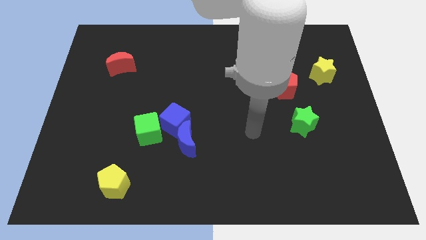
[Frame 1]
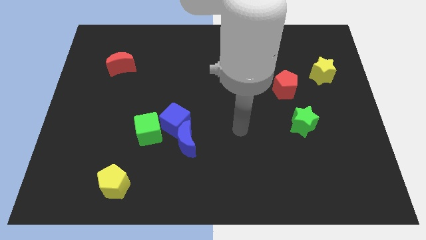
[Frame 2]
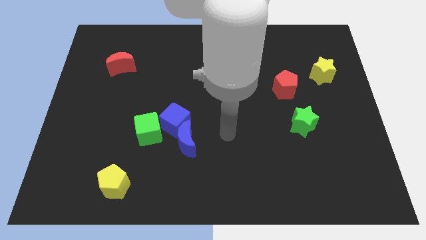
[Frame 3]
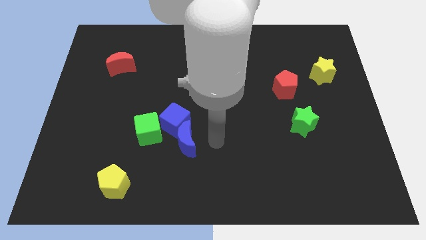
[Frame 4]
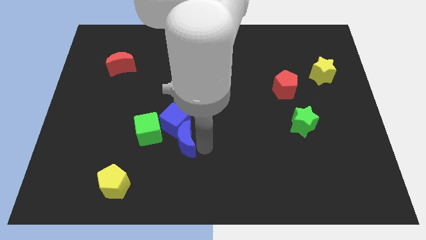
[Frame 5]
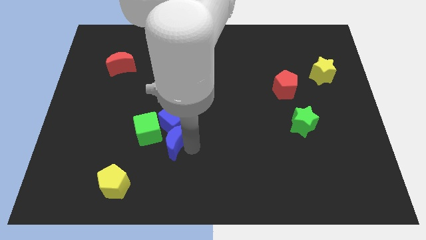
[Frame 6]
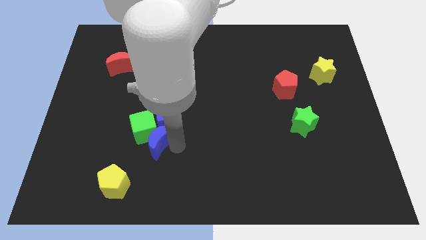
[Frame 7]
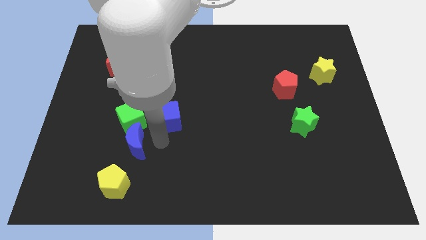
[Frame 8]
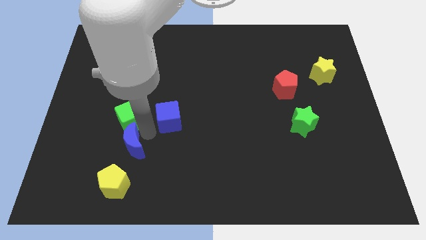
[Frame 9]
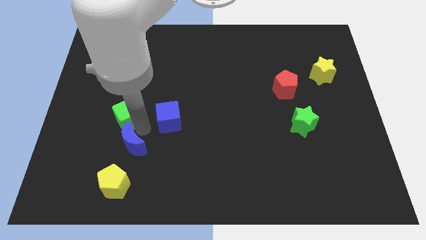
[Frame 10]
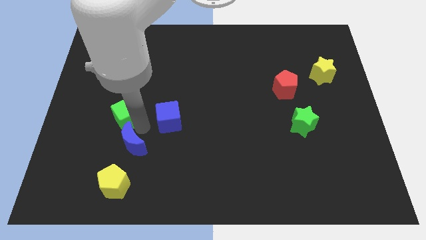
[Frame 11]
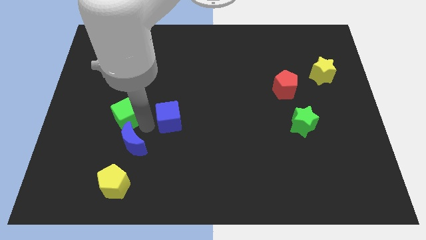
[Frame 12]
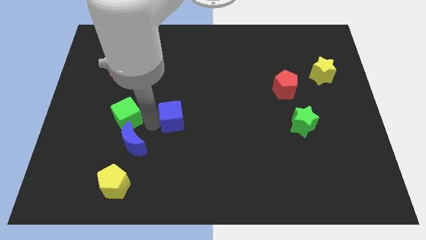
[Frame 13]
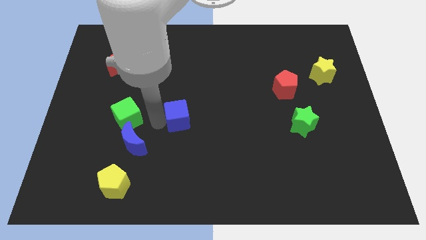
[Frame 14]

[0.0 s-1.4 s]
move the blue cube away from the blue moon and green cube

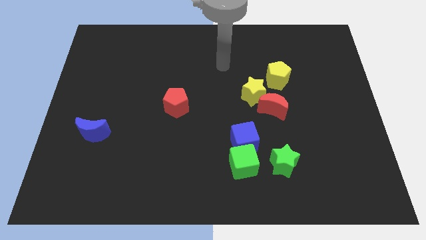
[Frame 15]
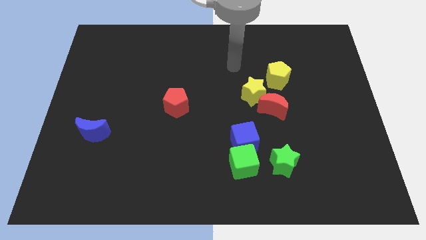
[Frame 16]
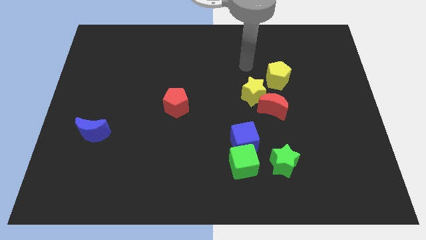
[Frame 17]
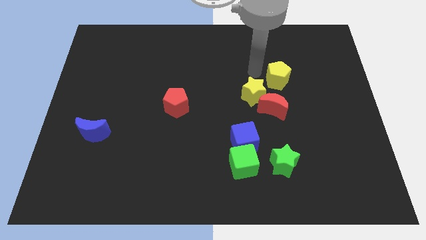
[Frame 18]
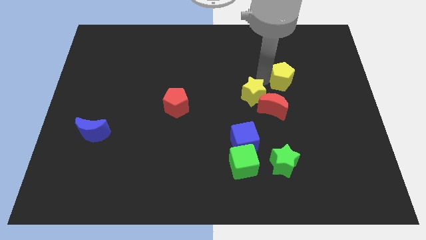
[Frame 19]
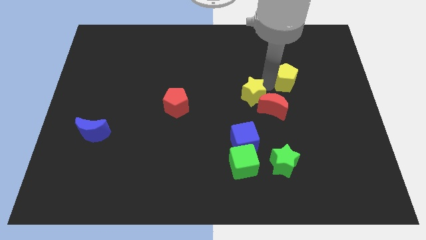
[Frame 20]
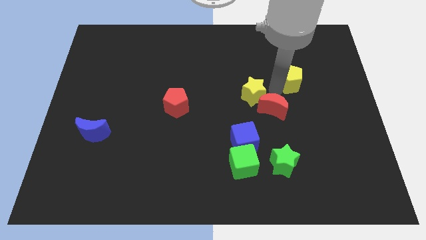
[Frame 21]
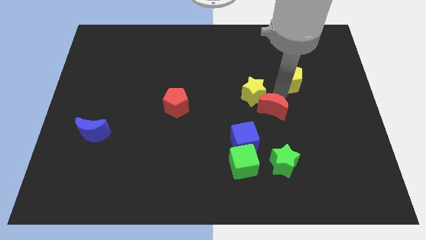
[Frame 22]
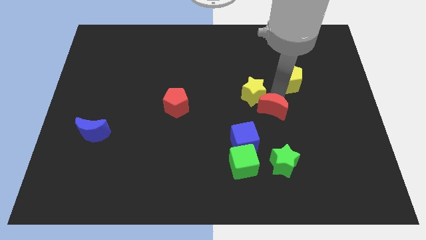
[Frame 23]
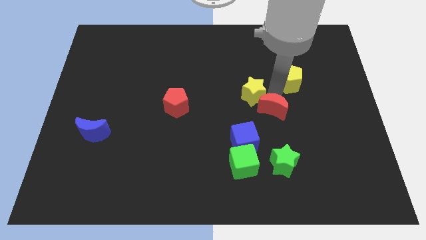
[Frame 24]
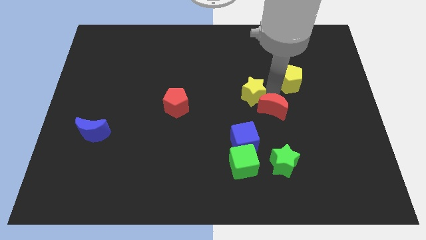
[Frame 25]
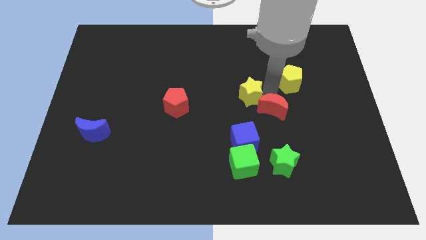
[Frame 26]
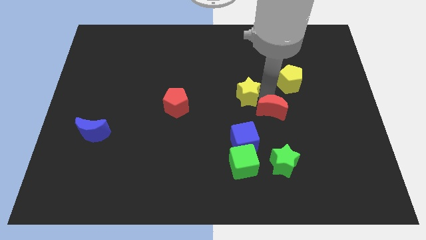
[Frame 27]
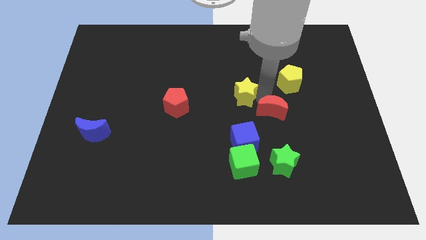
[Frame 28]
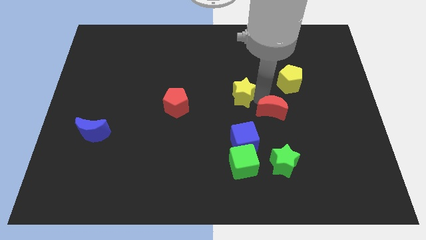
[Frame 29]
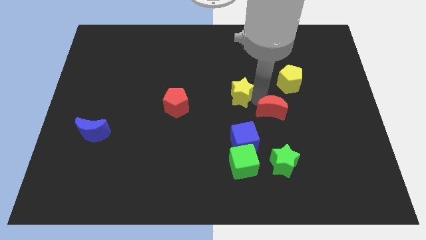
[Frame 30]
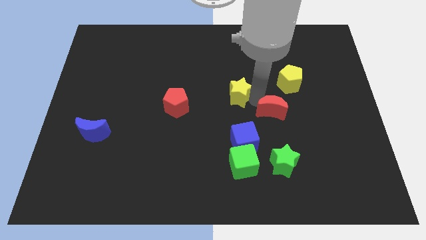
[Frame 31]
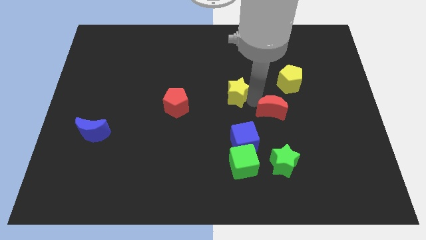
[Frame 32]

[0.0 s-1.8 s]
pull the yellow star apart from the red moon and yellow pentagon

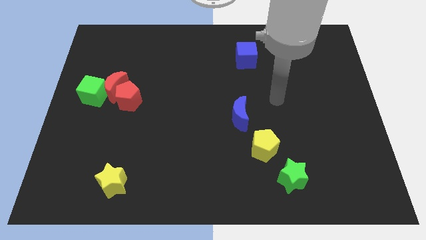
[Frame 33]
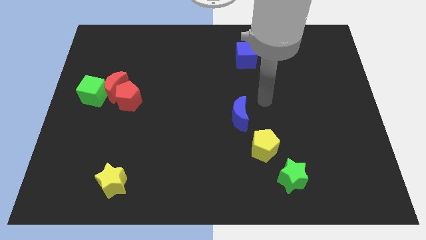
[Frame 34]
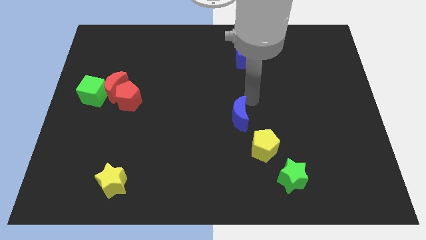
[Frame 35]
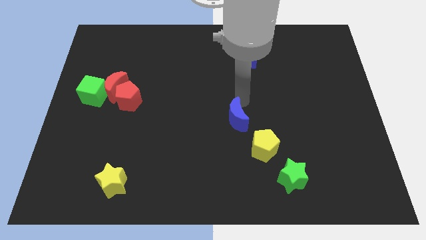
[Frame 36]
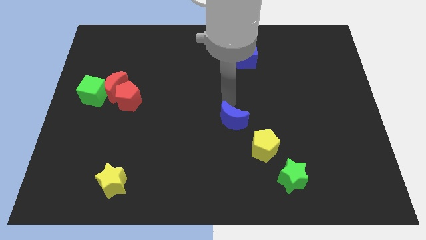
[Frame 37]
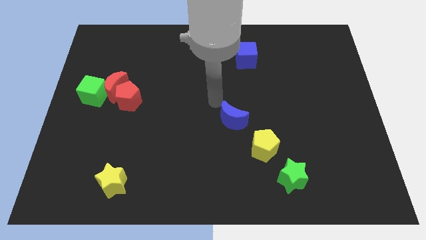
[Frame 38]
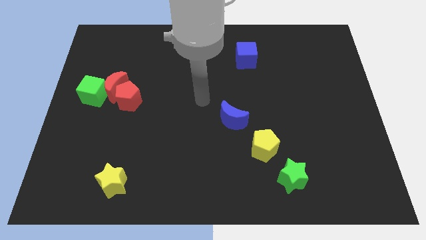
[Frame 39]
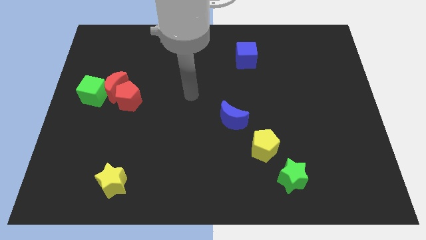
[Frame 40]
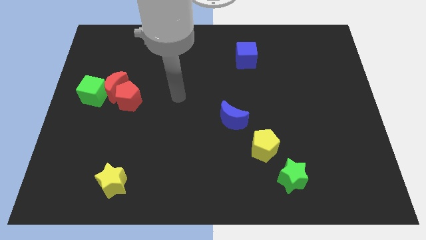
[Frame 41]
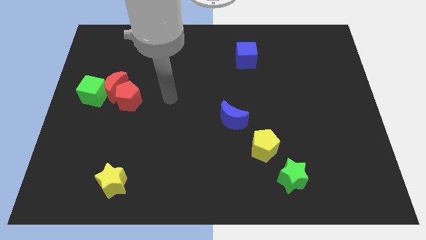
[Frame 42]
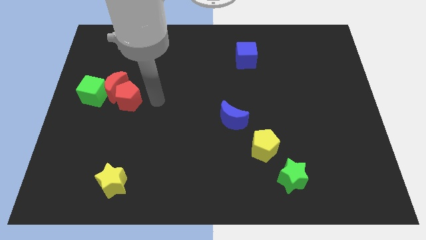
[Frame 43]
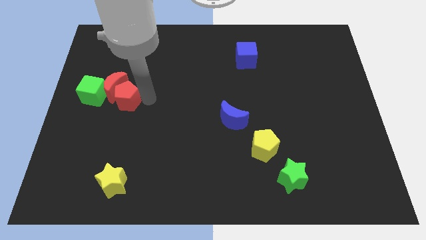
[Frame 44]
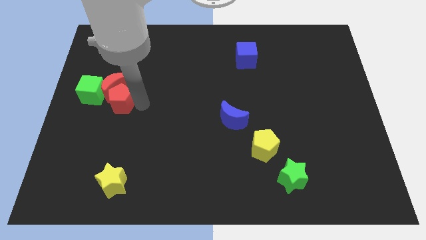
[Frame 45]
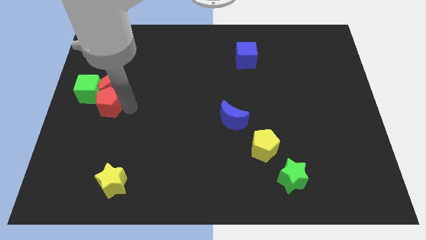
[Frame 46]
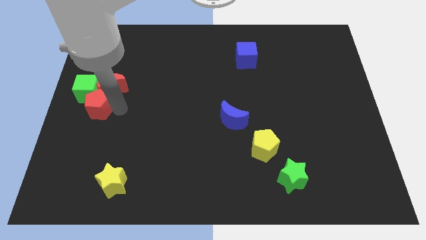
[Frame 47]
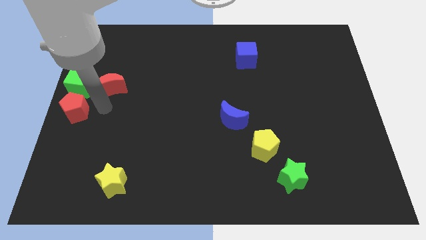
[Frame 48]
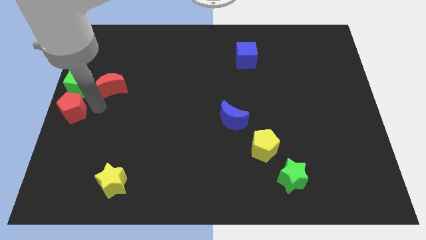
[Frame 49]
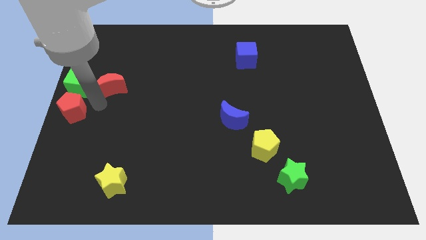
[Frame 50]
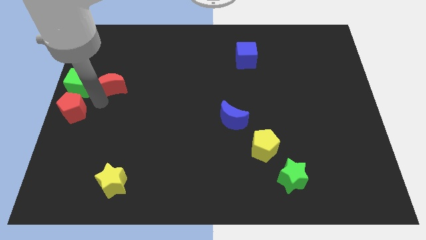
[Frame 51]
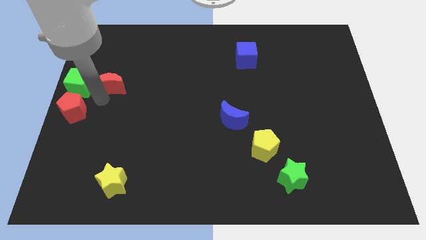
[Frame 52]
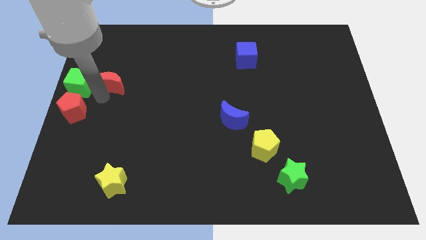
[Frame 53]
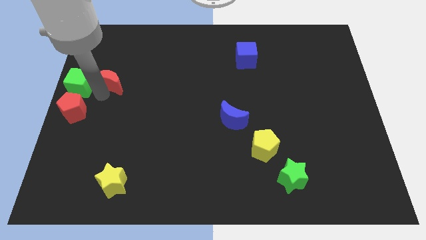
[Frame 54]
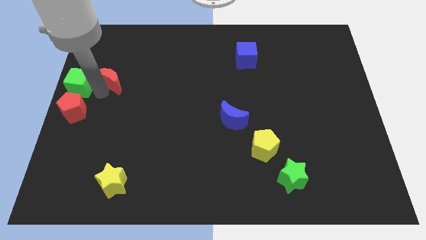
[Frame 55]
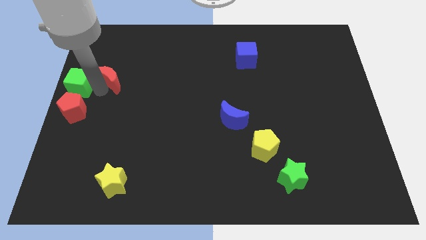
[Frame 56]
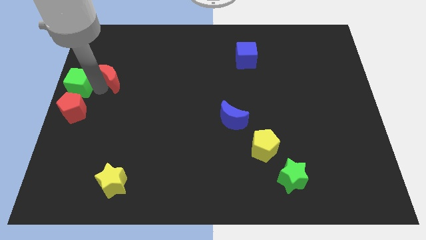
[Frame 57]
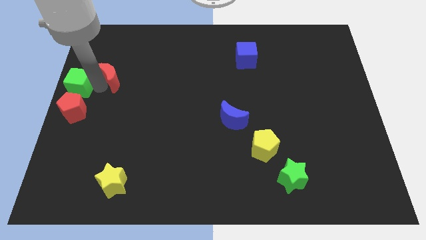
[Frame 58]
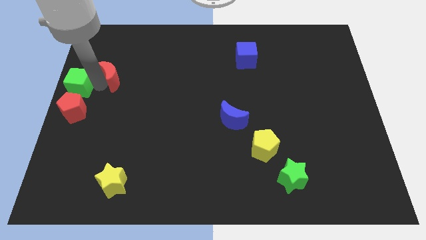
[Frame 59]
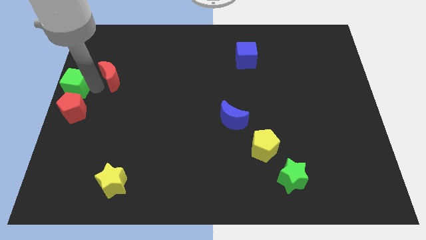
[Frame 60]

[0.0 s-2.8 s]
move the red moon away from the red pentagon and green cube

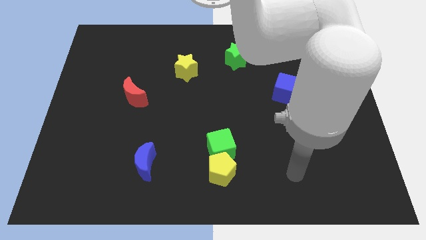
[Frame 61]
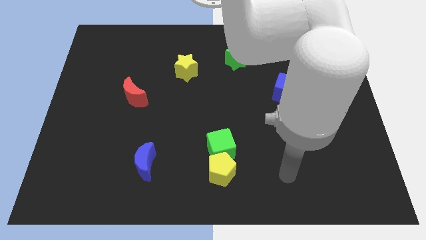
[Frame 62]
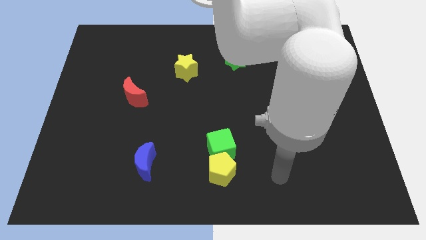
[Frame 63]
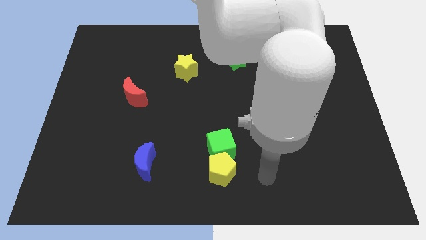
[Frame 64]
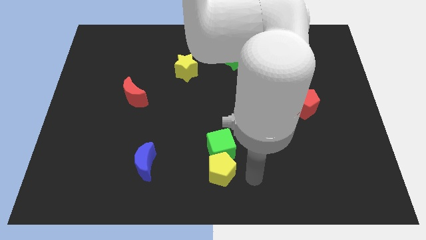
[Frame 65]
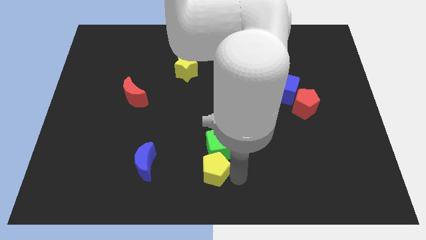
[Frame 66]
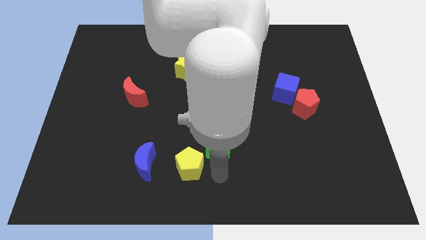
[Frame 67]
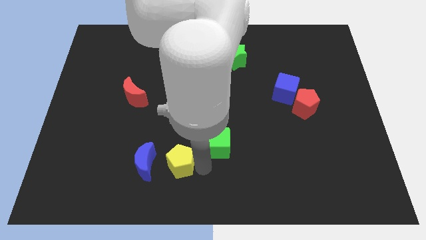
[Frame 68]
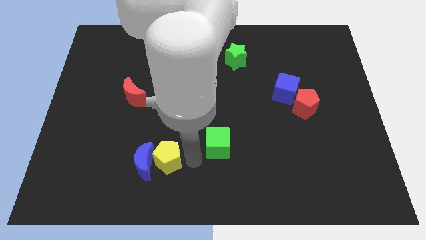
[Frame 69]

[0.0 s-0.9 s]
move the green cube away from the yellow pentagon

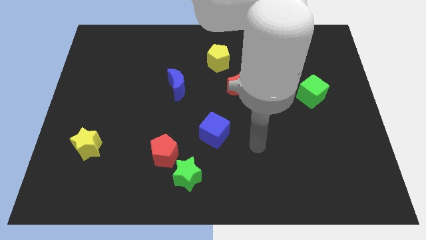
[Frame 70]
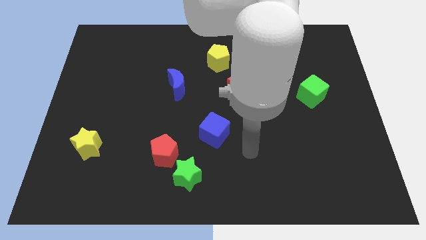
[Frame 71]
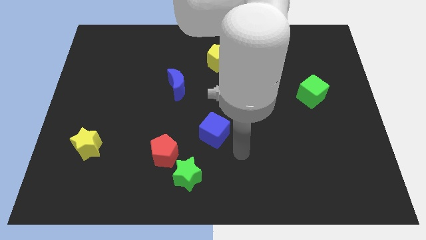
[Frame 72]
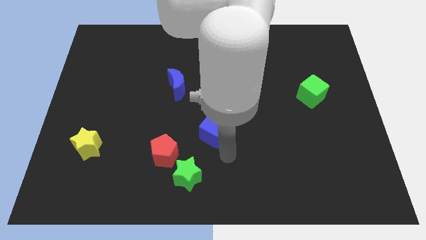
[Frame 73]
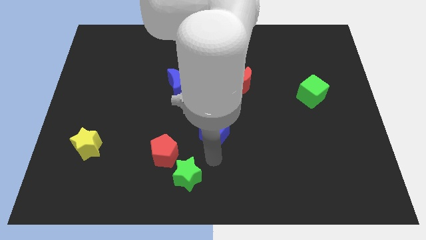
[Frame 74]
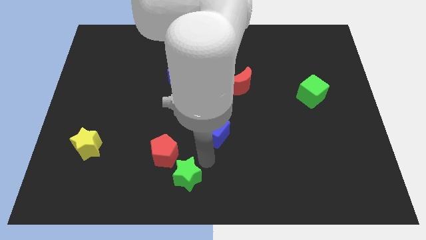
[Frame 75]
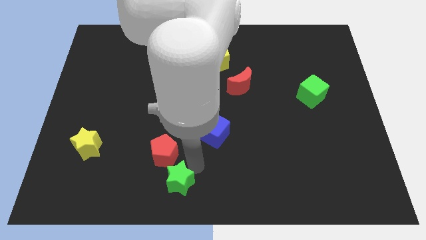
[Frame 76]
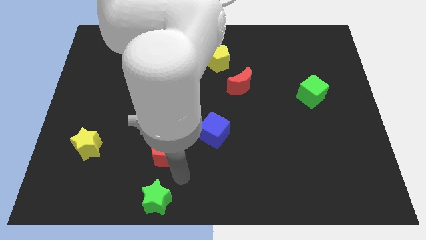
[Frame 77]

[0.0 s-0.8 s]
move the red pentagon away from the green star

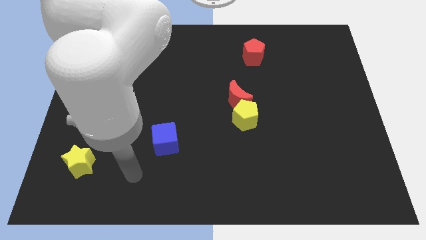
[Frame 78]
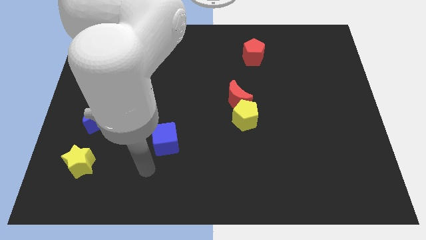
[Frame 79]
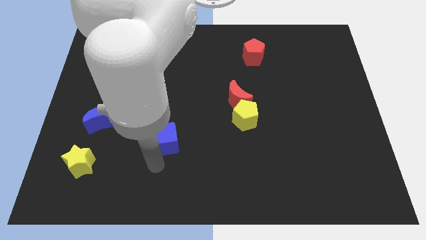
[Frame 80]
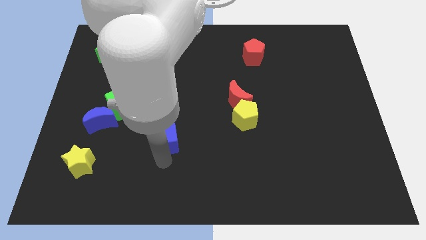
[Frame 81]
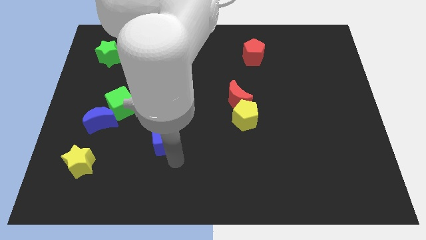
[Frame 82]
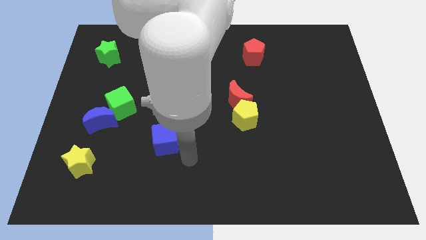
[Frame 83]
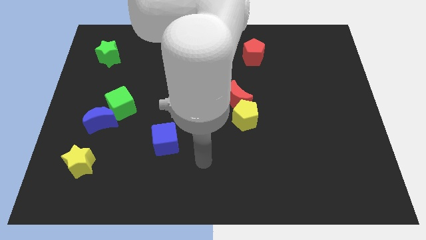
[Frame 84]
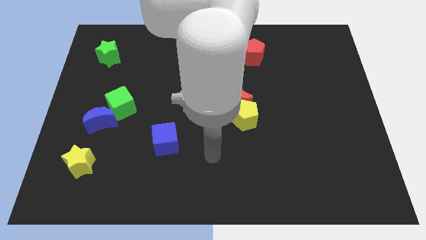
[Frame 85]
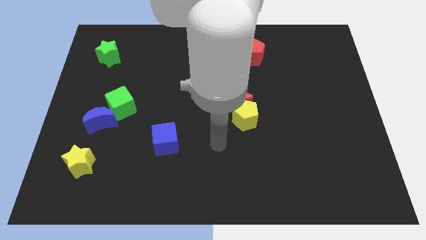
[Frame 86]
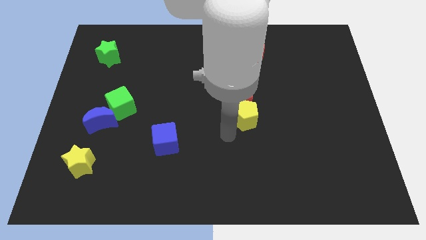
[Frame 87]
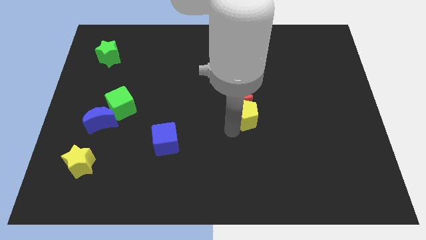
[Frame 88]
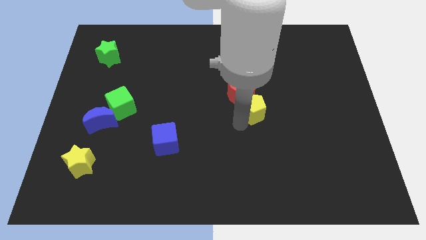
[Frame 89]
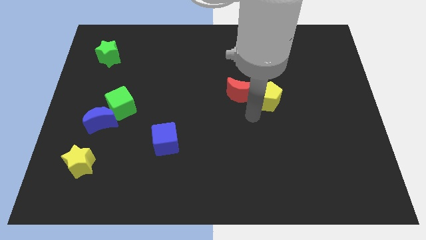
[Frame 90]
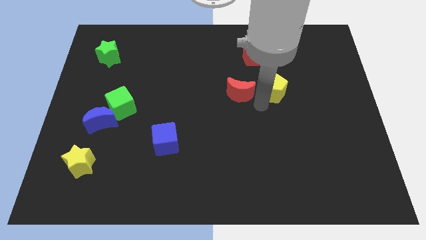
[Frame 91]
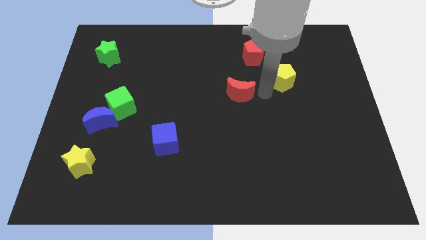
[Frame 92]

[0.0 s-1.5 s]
pull the red moon apart from the yellow pentagon

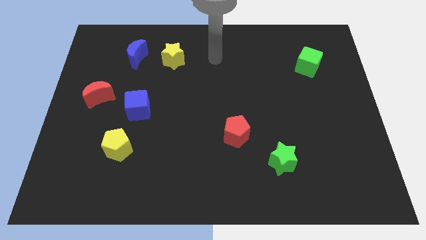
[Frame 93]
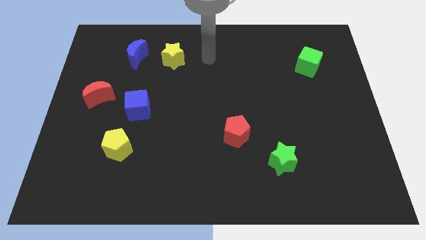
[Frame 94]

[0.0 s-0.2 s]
separate the blue moon from the yellow star

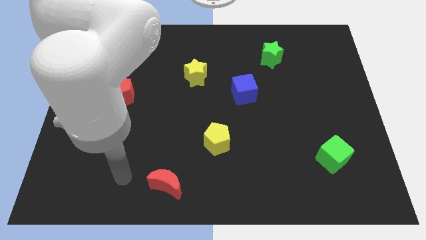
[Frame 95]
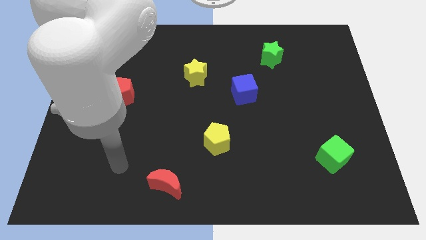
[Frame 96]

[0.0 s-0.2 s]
move the red pentagon away from the blue moon
